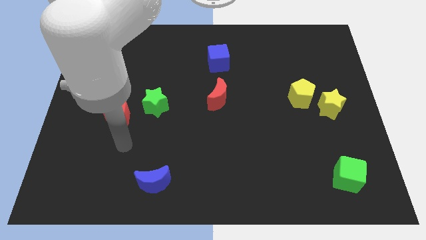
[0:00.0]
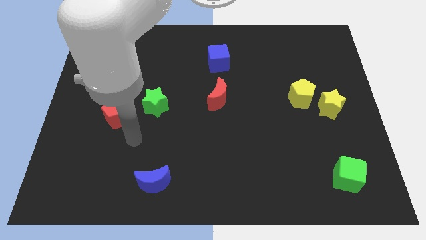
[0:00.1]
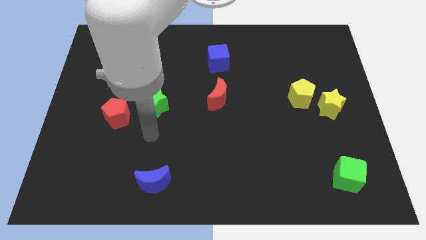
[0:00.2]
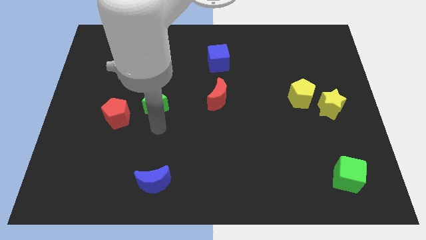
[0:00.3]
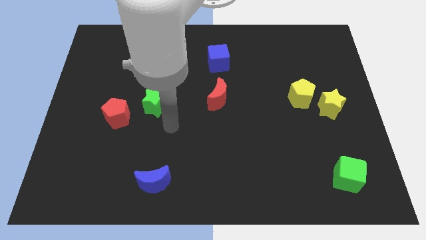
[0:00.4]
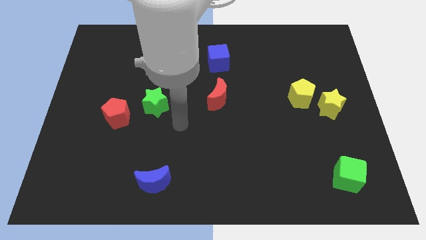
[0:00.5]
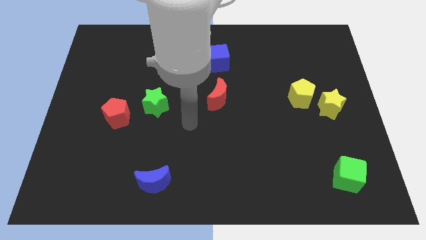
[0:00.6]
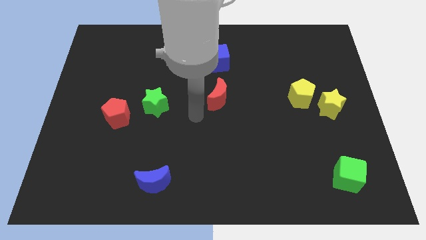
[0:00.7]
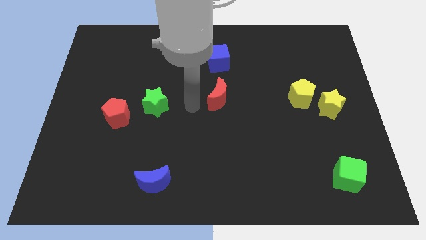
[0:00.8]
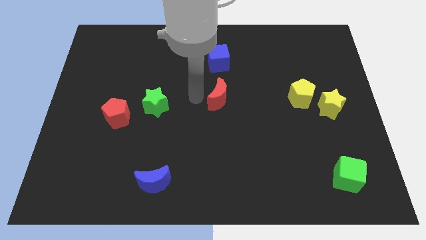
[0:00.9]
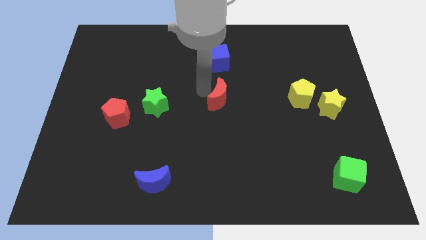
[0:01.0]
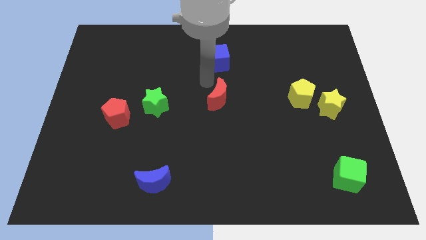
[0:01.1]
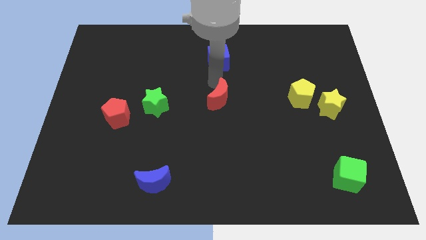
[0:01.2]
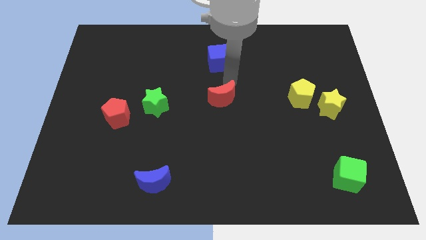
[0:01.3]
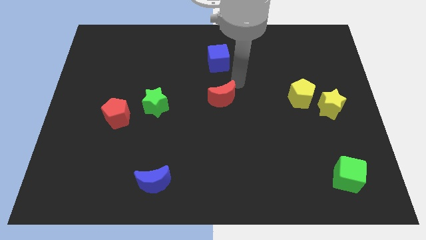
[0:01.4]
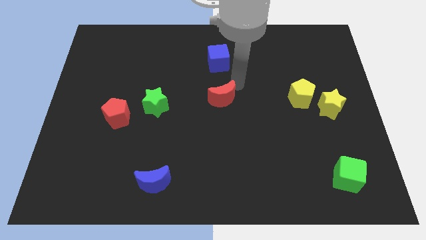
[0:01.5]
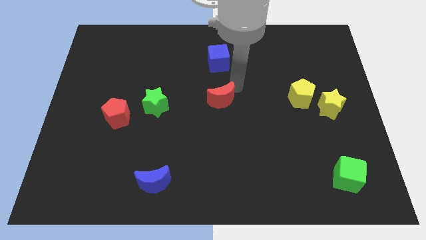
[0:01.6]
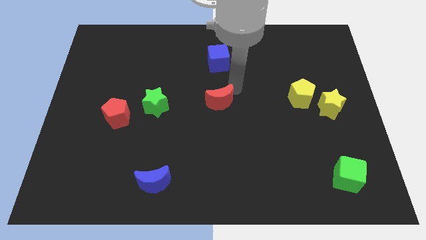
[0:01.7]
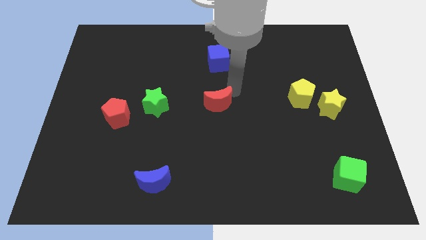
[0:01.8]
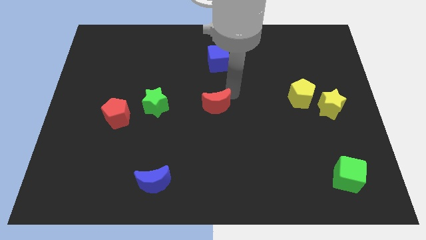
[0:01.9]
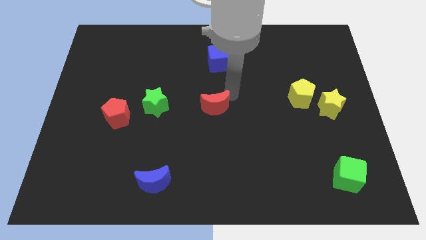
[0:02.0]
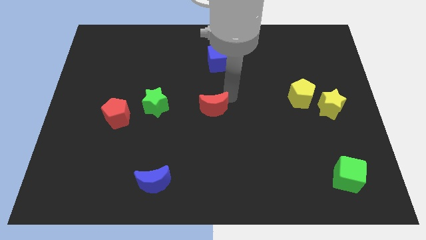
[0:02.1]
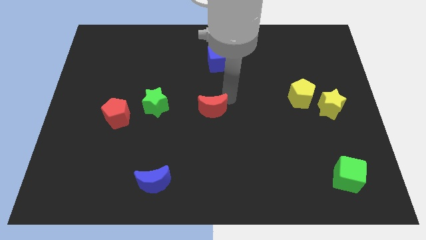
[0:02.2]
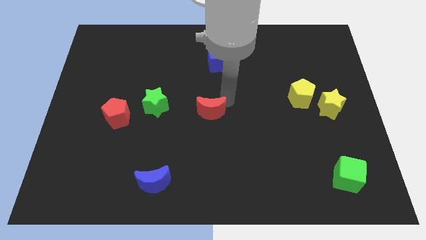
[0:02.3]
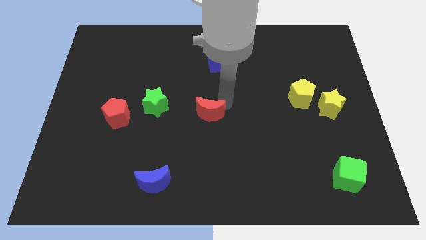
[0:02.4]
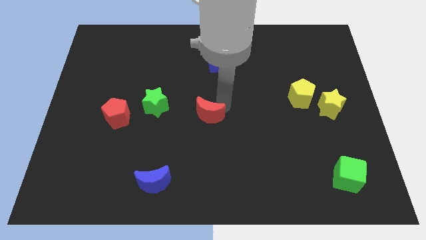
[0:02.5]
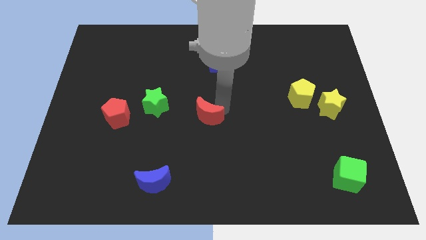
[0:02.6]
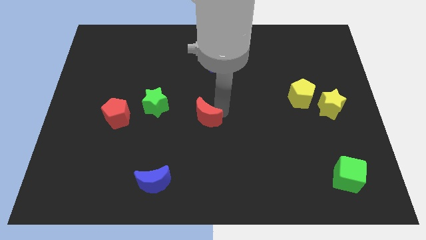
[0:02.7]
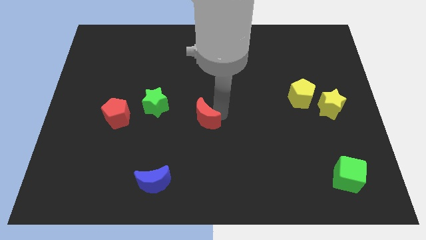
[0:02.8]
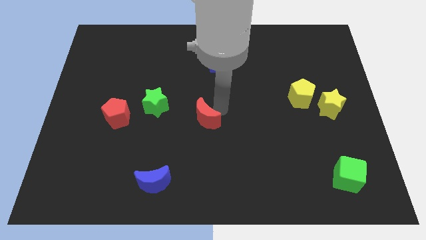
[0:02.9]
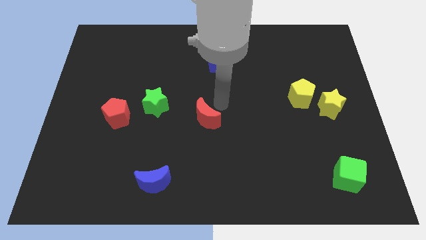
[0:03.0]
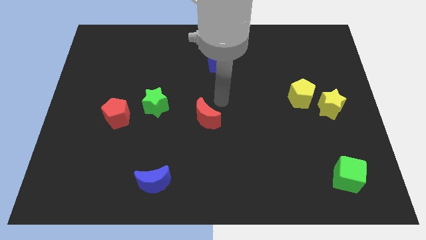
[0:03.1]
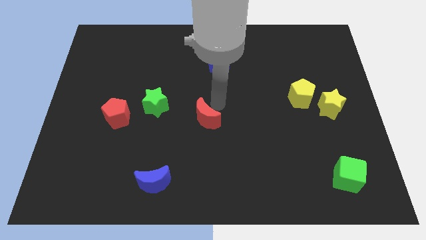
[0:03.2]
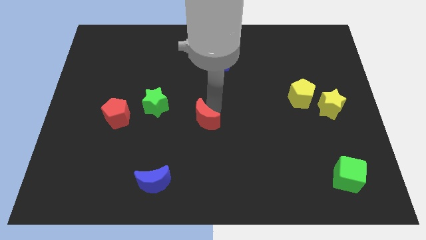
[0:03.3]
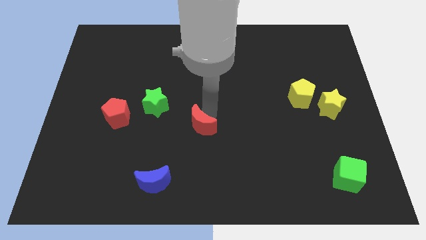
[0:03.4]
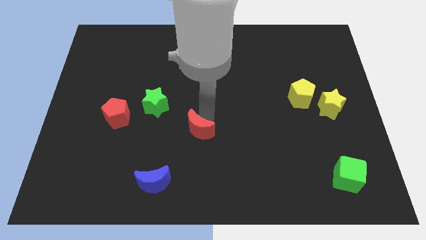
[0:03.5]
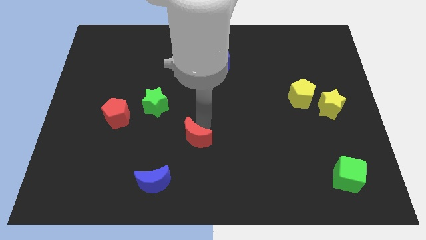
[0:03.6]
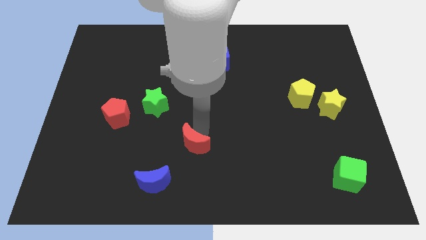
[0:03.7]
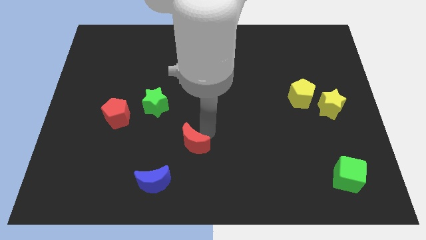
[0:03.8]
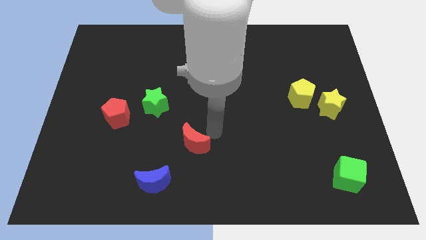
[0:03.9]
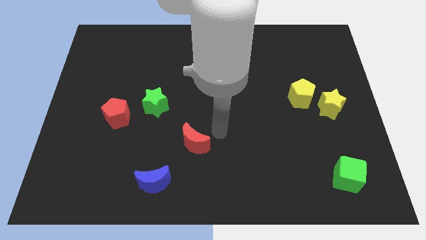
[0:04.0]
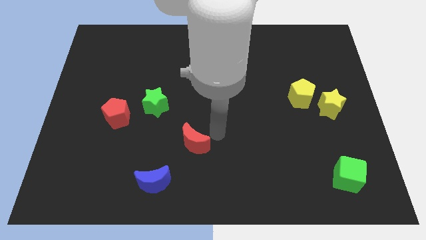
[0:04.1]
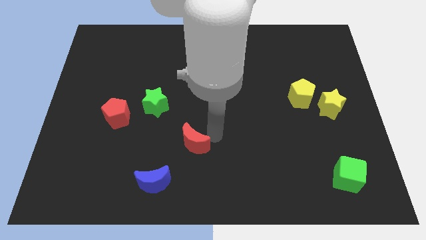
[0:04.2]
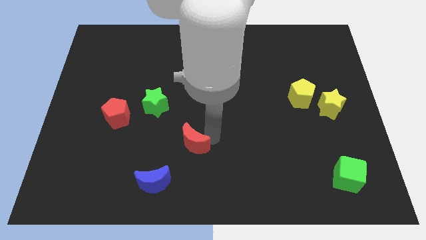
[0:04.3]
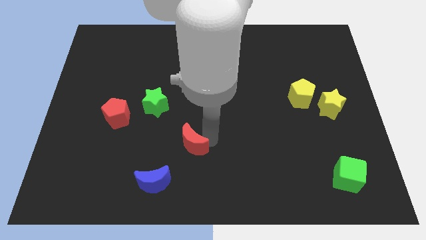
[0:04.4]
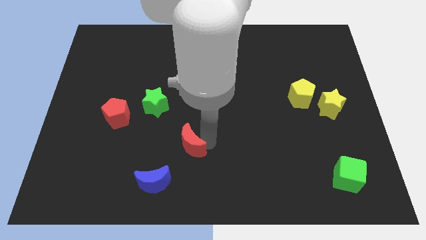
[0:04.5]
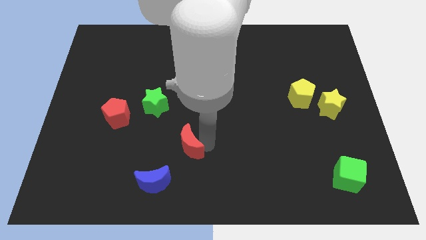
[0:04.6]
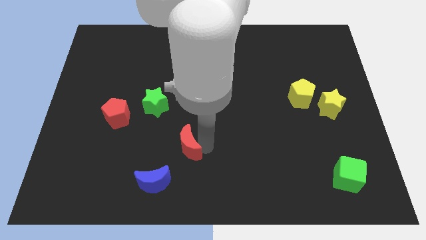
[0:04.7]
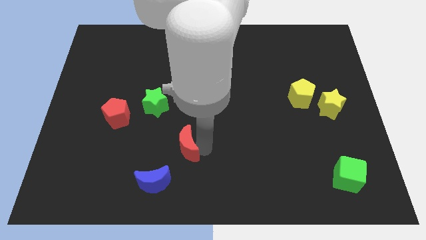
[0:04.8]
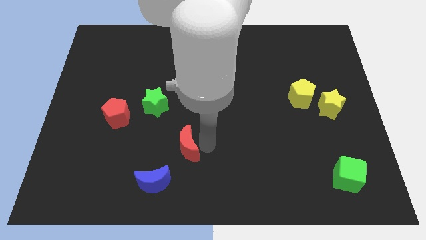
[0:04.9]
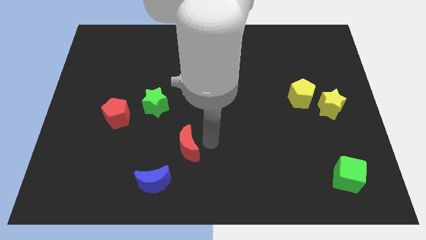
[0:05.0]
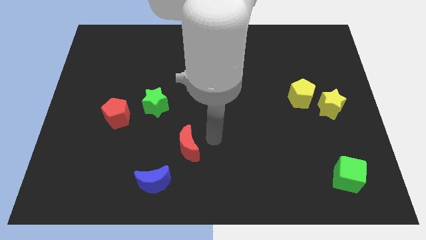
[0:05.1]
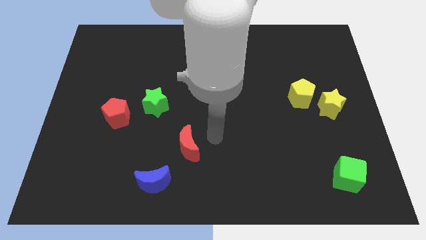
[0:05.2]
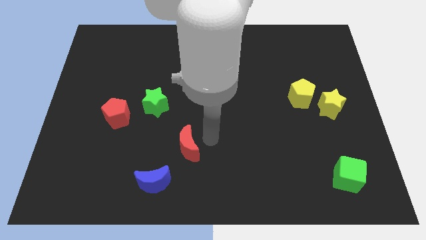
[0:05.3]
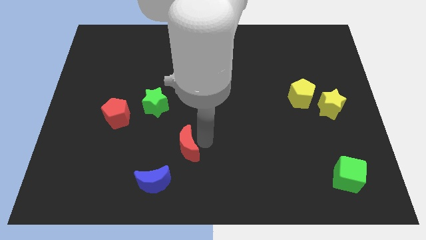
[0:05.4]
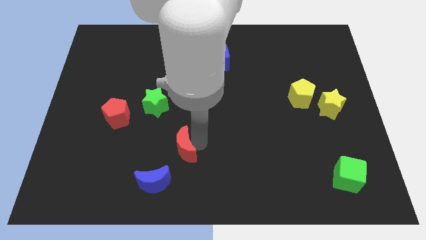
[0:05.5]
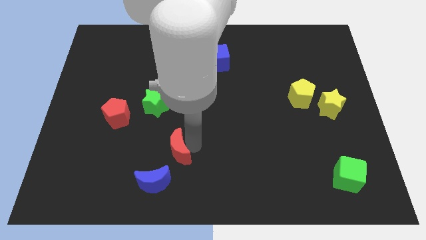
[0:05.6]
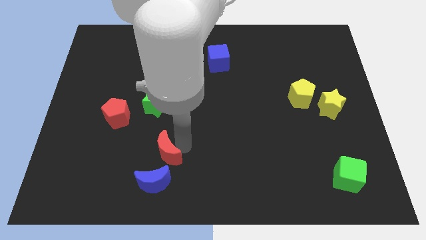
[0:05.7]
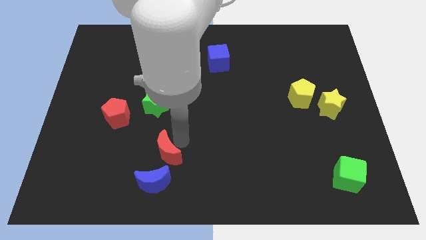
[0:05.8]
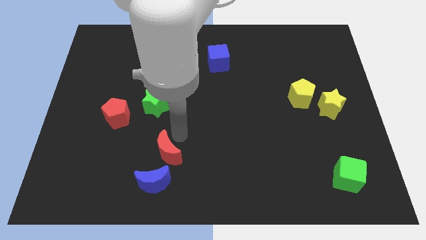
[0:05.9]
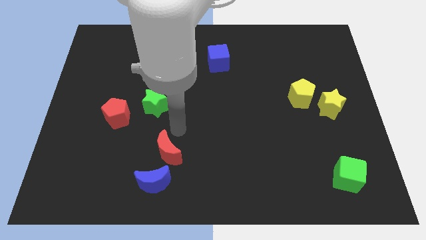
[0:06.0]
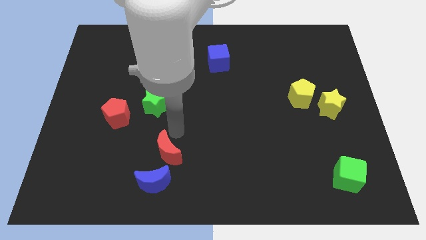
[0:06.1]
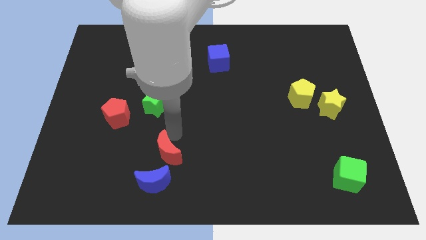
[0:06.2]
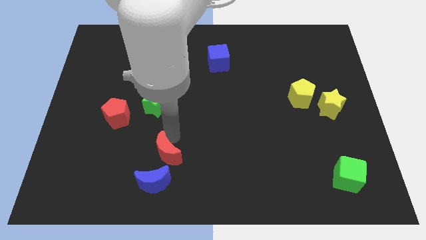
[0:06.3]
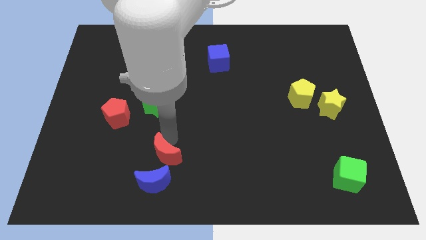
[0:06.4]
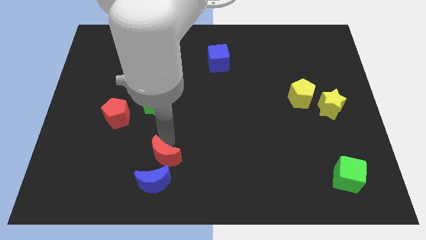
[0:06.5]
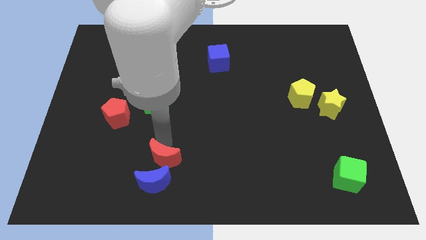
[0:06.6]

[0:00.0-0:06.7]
put the red moon next to the blue moon

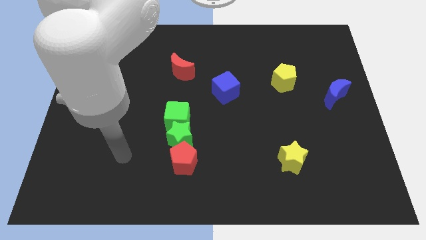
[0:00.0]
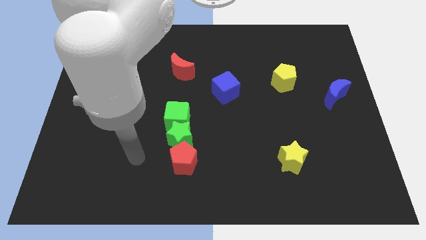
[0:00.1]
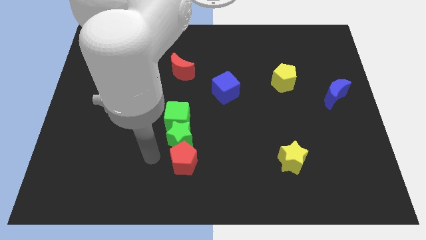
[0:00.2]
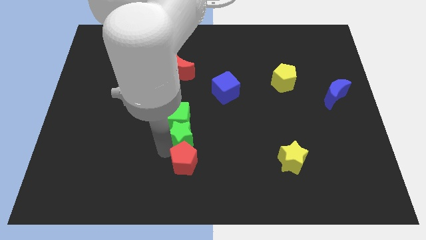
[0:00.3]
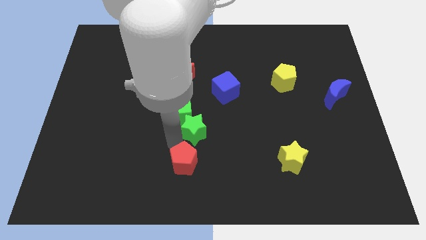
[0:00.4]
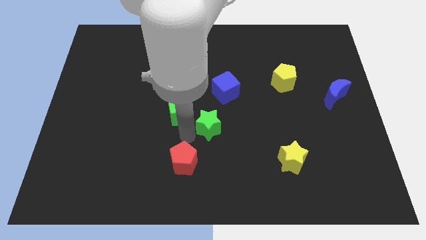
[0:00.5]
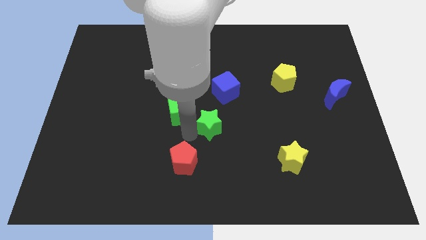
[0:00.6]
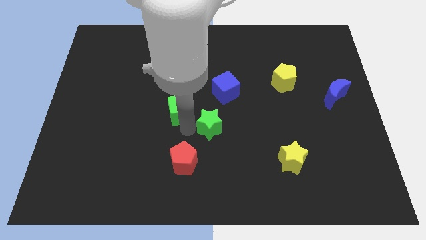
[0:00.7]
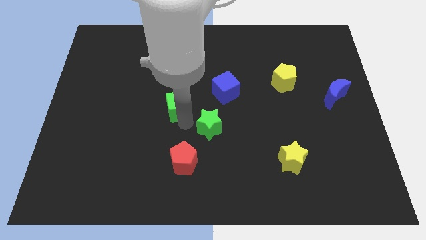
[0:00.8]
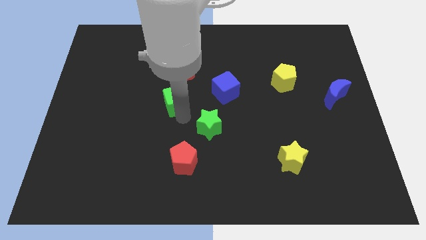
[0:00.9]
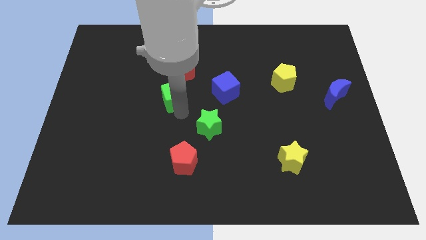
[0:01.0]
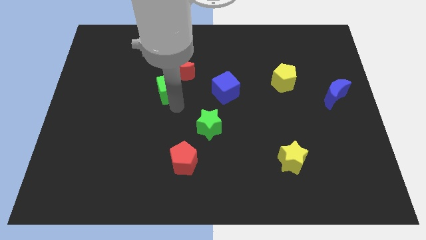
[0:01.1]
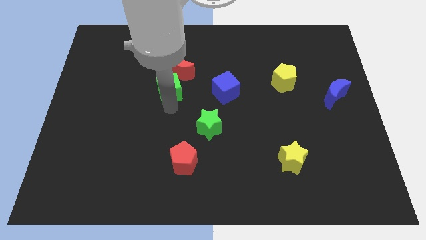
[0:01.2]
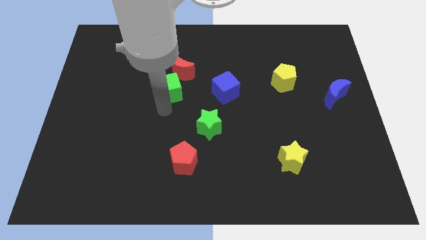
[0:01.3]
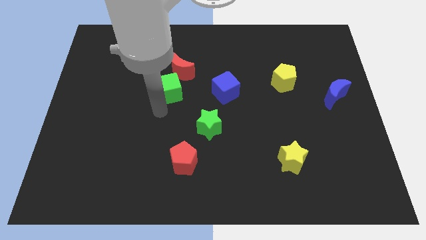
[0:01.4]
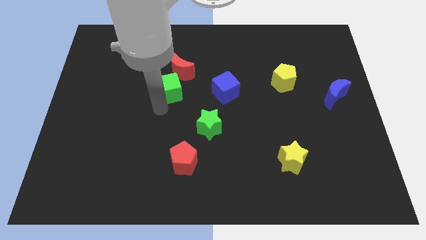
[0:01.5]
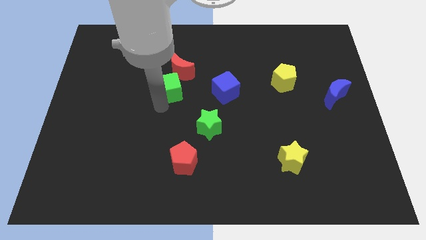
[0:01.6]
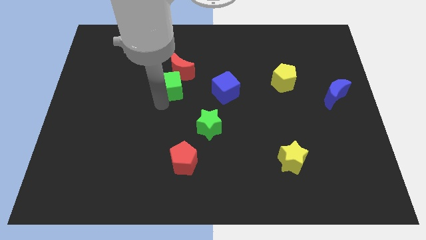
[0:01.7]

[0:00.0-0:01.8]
slide the green cube next to the red moon
